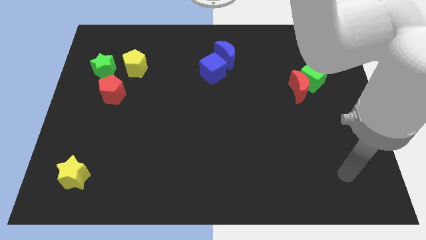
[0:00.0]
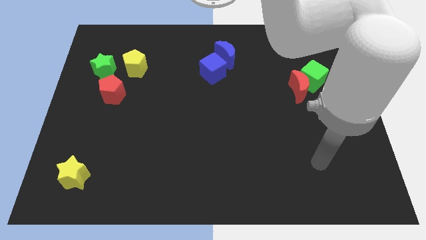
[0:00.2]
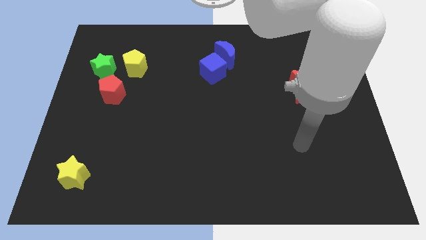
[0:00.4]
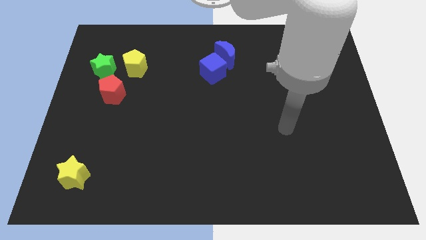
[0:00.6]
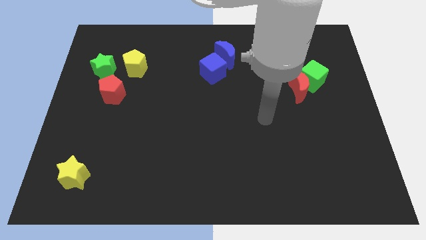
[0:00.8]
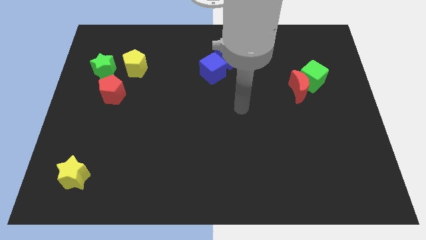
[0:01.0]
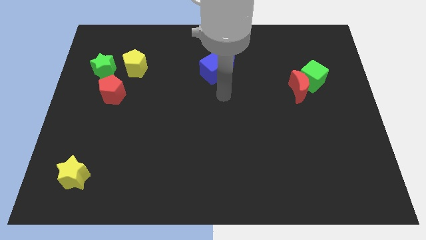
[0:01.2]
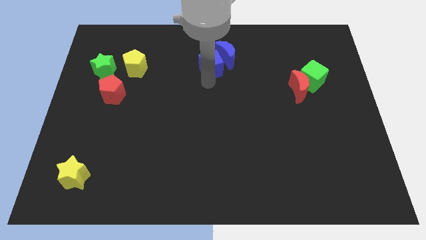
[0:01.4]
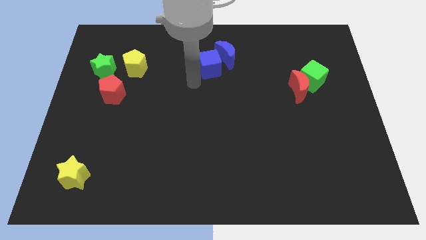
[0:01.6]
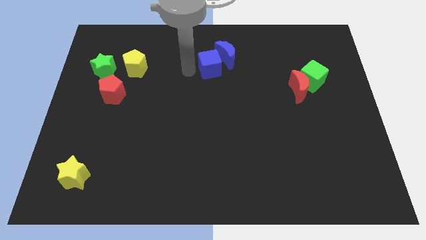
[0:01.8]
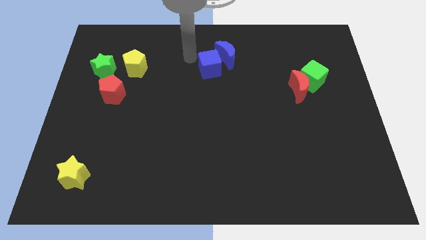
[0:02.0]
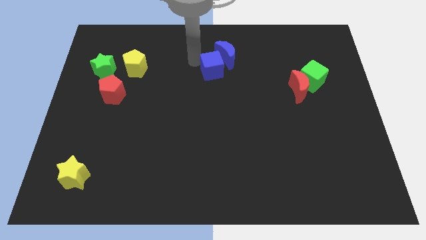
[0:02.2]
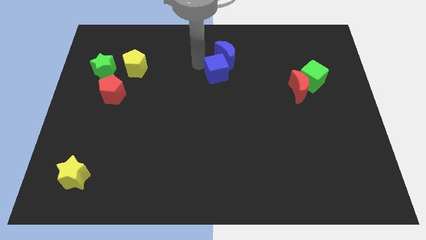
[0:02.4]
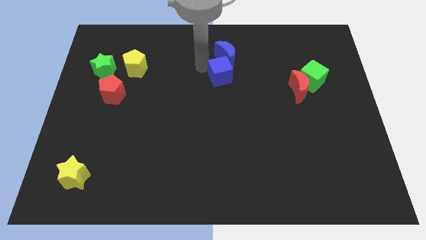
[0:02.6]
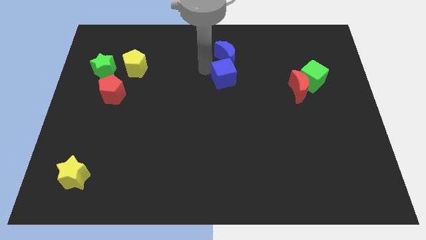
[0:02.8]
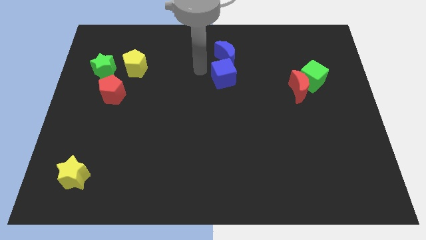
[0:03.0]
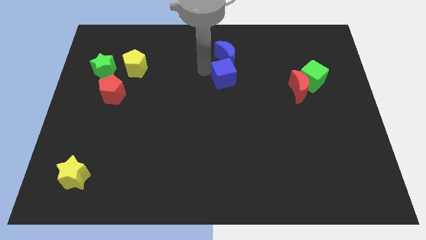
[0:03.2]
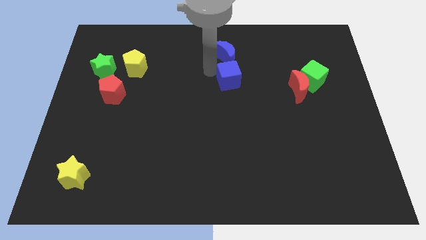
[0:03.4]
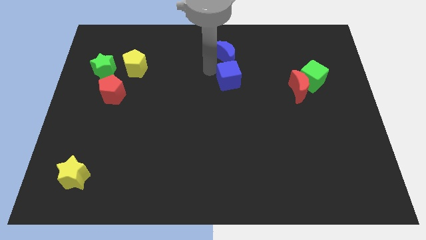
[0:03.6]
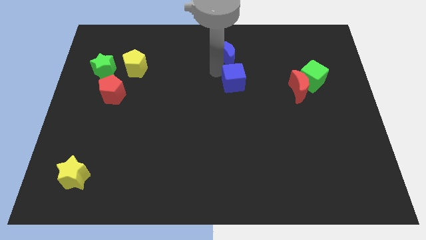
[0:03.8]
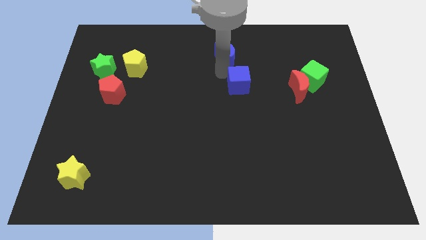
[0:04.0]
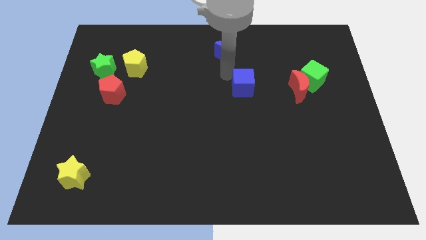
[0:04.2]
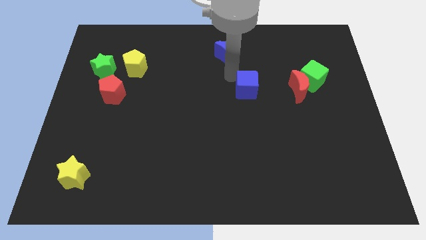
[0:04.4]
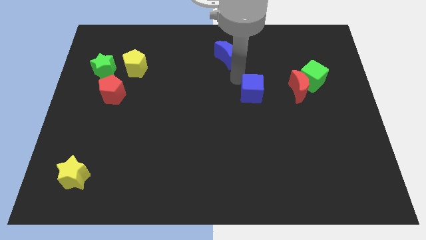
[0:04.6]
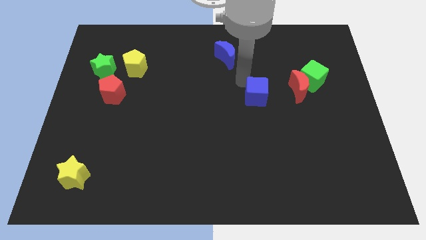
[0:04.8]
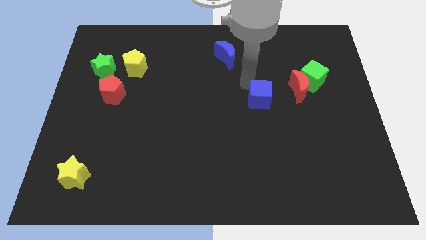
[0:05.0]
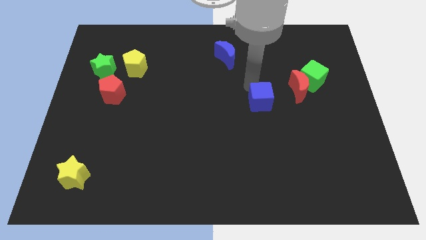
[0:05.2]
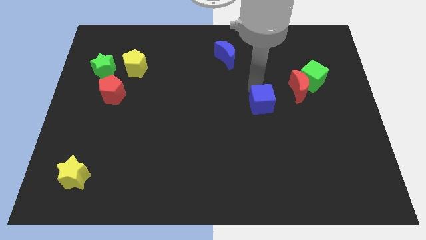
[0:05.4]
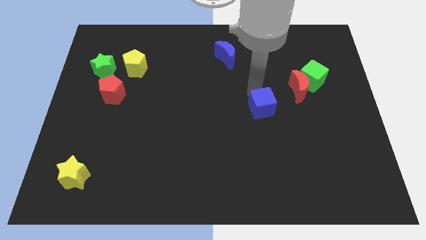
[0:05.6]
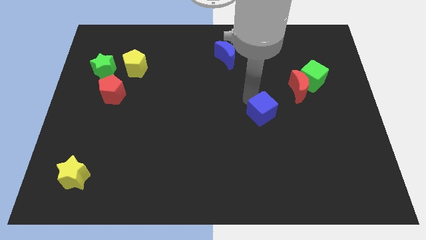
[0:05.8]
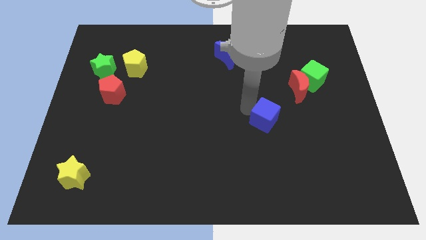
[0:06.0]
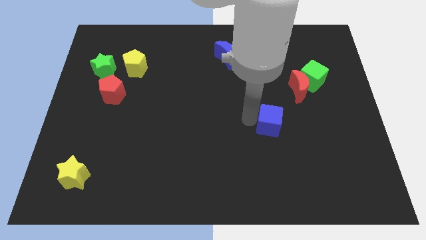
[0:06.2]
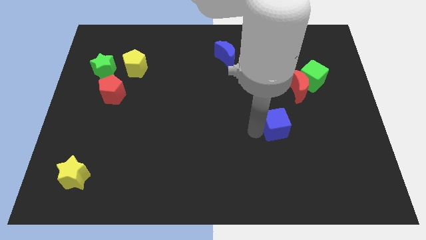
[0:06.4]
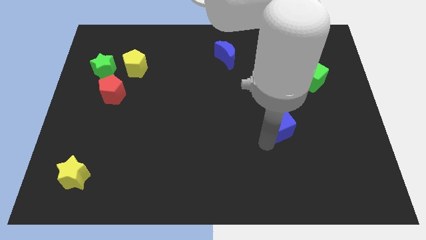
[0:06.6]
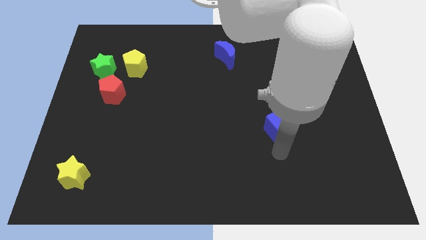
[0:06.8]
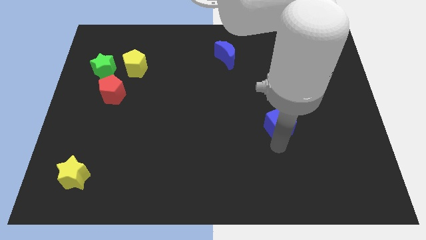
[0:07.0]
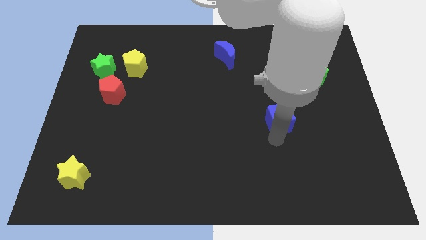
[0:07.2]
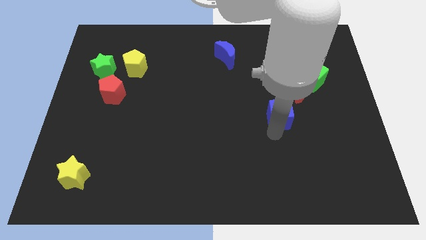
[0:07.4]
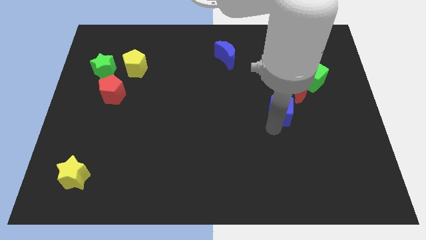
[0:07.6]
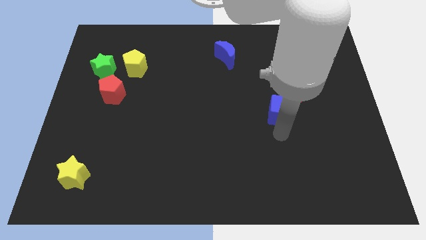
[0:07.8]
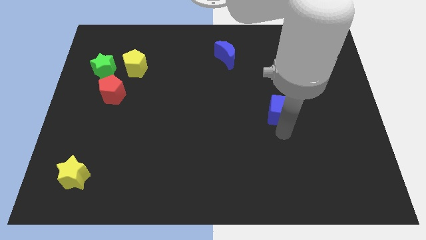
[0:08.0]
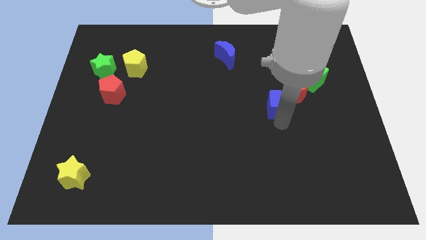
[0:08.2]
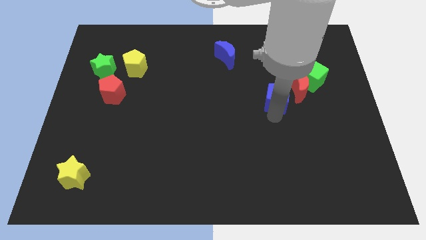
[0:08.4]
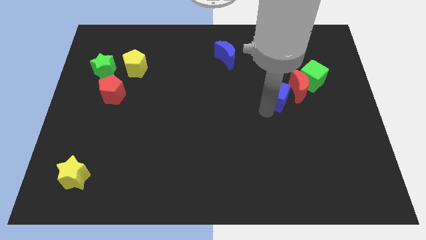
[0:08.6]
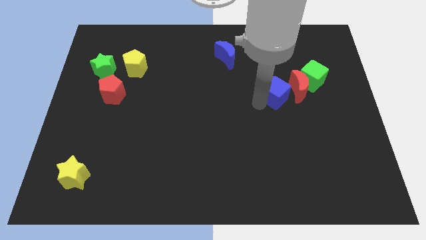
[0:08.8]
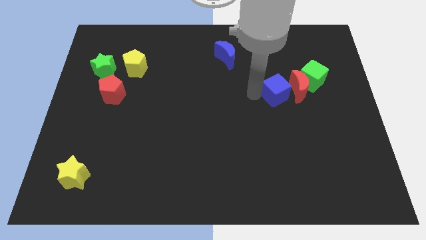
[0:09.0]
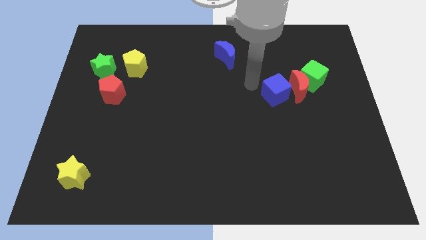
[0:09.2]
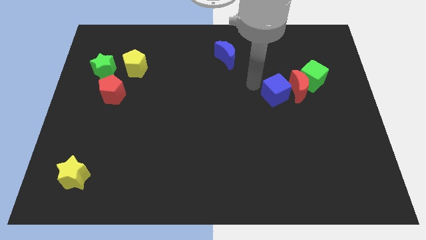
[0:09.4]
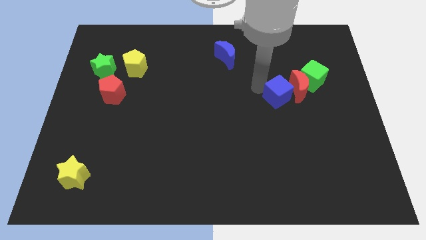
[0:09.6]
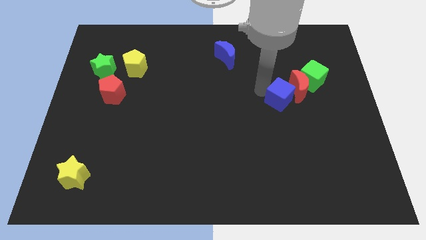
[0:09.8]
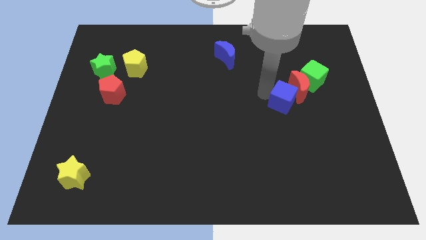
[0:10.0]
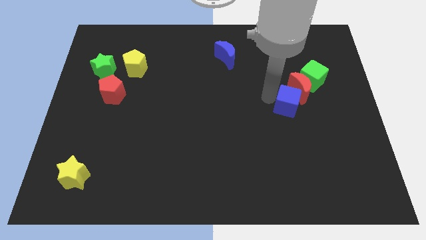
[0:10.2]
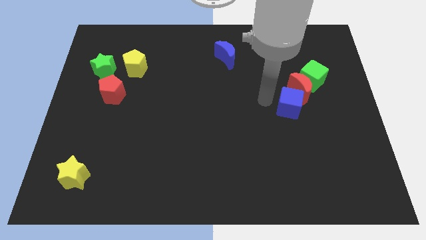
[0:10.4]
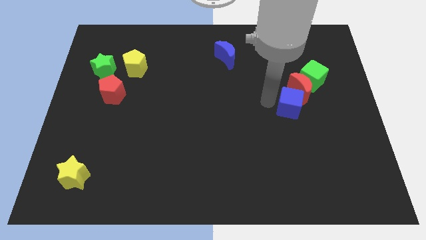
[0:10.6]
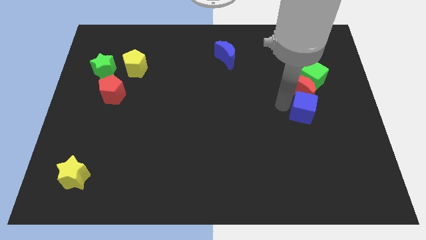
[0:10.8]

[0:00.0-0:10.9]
slide the blue cube below the green cube
